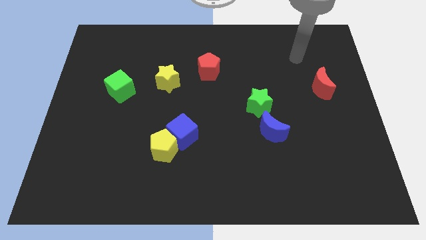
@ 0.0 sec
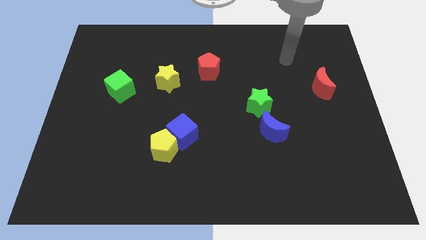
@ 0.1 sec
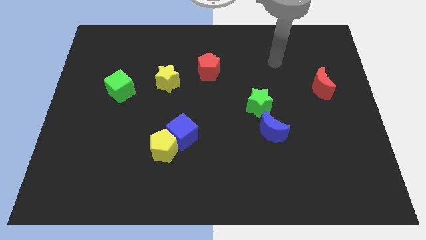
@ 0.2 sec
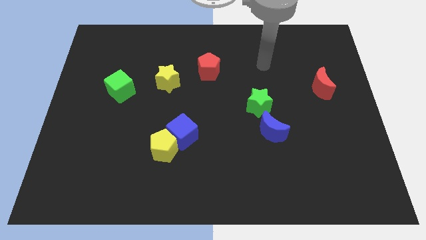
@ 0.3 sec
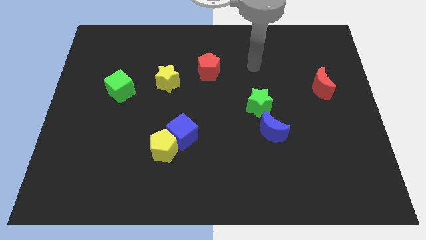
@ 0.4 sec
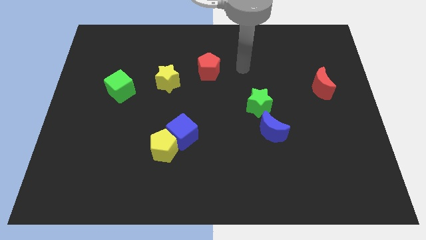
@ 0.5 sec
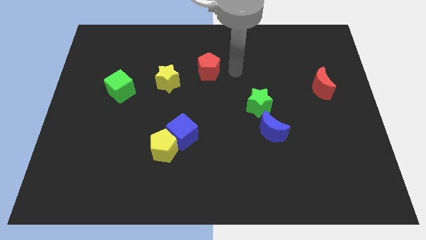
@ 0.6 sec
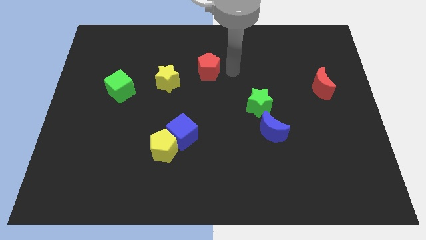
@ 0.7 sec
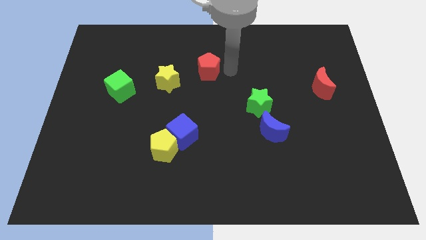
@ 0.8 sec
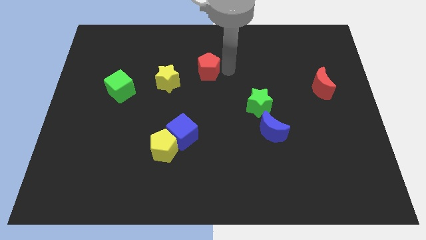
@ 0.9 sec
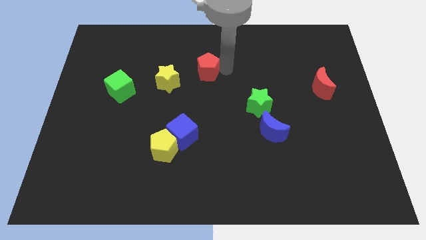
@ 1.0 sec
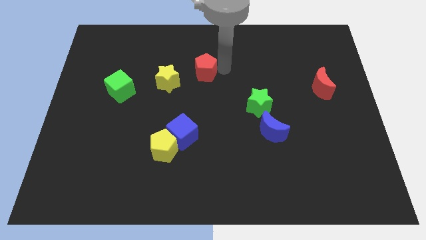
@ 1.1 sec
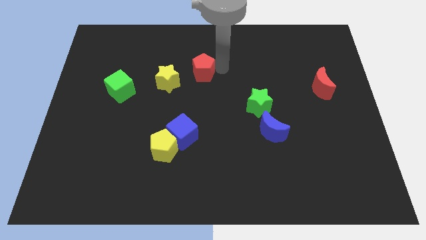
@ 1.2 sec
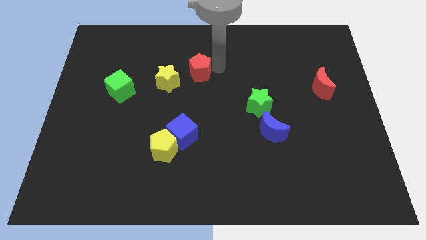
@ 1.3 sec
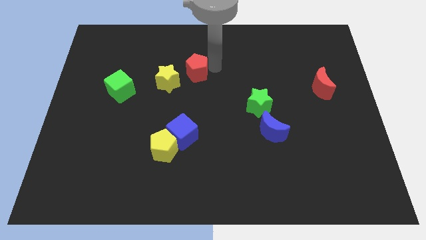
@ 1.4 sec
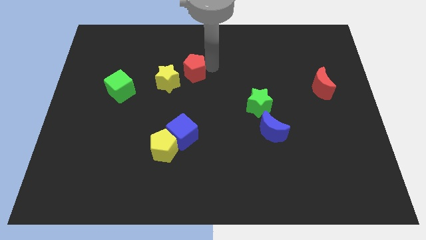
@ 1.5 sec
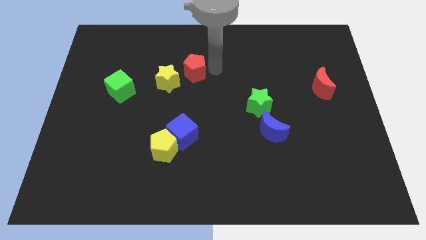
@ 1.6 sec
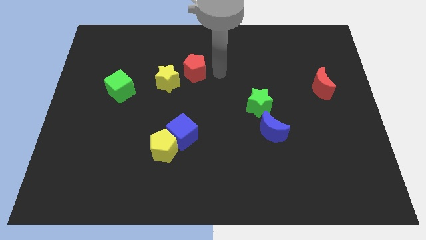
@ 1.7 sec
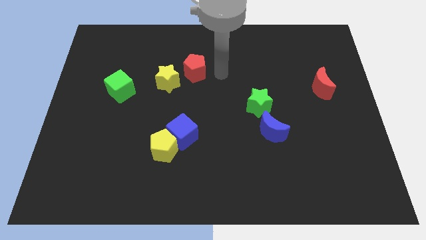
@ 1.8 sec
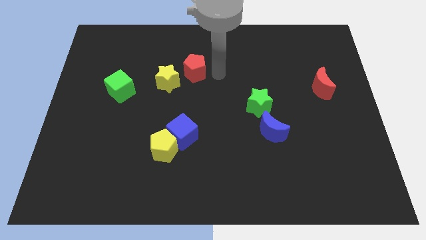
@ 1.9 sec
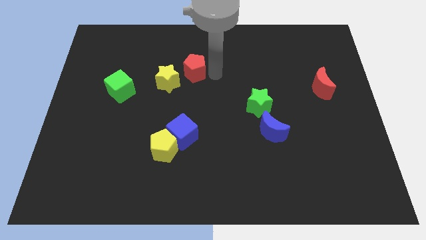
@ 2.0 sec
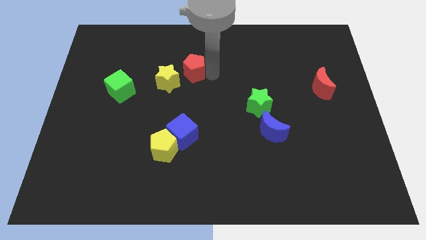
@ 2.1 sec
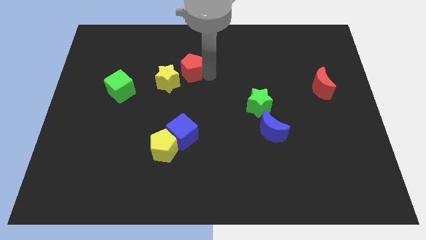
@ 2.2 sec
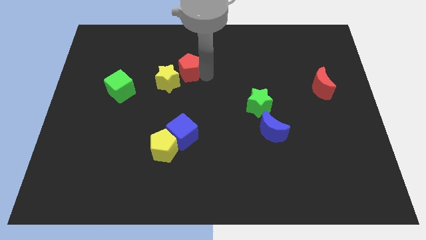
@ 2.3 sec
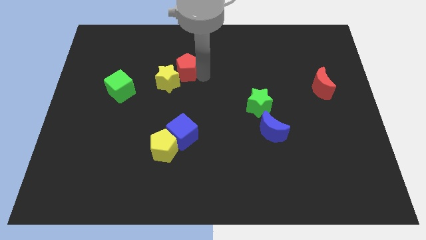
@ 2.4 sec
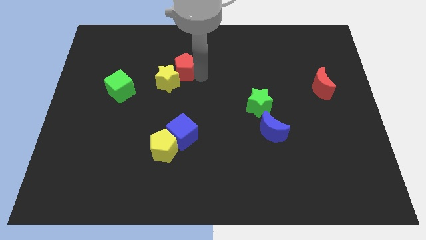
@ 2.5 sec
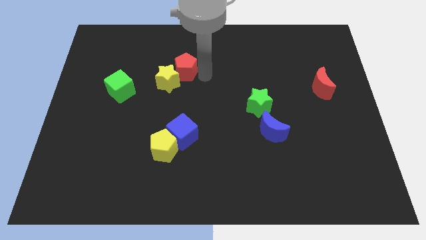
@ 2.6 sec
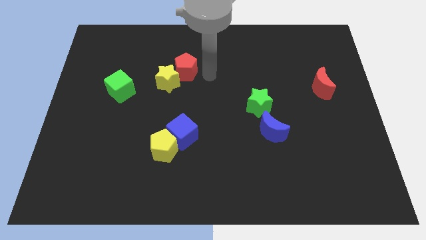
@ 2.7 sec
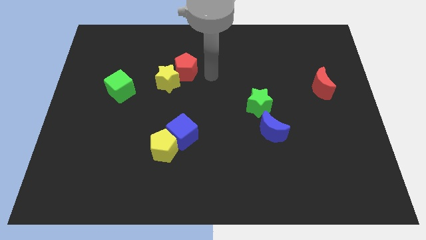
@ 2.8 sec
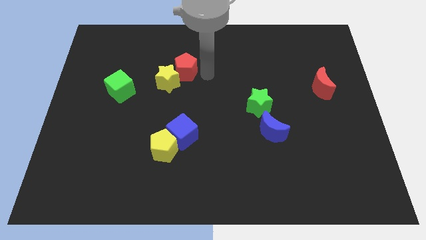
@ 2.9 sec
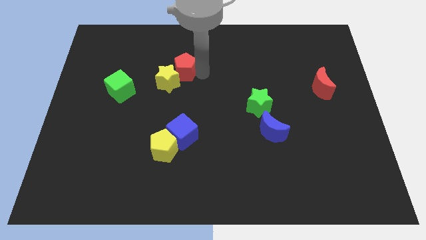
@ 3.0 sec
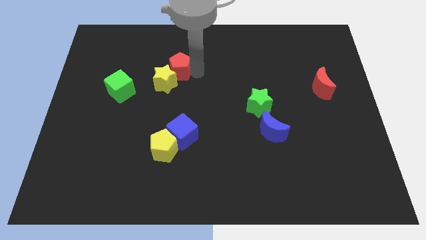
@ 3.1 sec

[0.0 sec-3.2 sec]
slightly move the red pentagon to the left

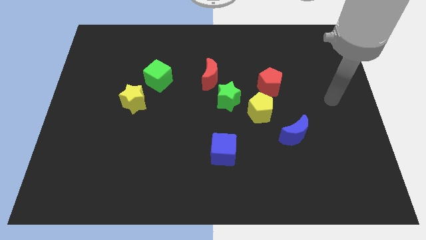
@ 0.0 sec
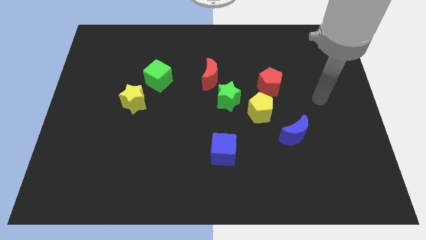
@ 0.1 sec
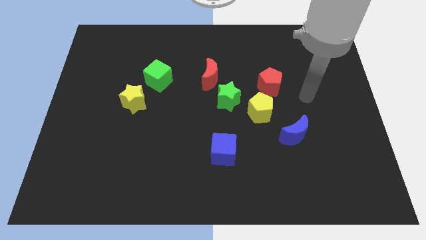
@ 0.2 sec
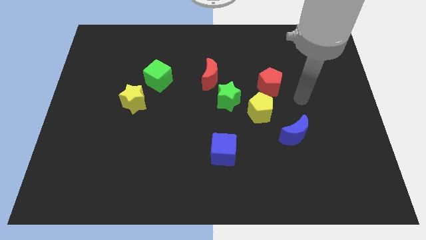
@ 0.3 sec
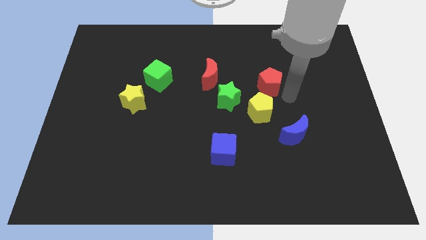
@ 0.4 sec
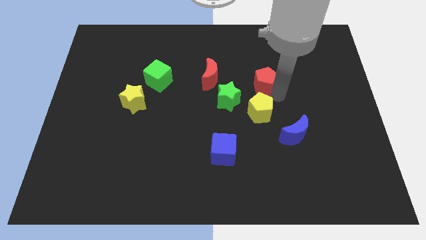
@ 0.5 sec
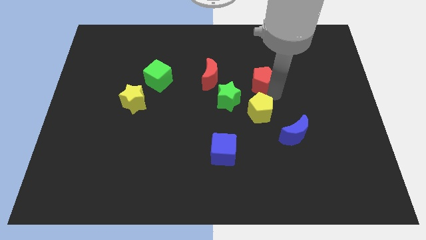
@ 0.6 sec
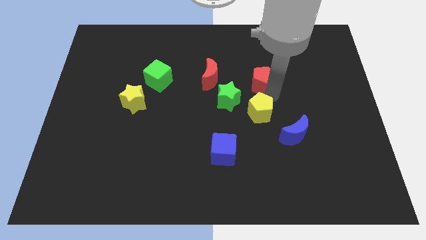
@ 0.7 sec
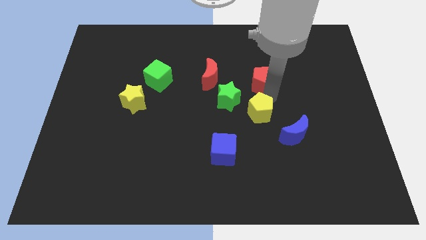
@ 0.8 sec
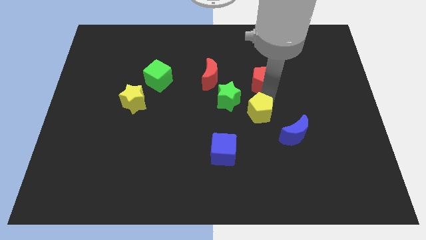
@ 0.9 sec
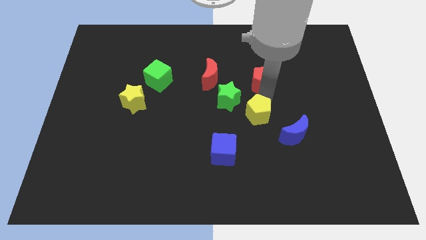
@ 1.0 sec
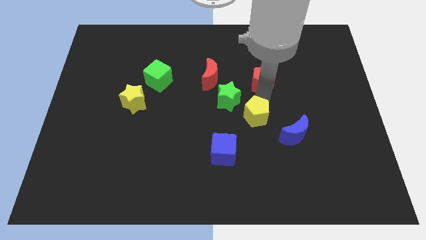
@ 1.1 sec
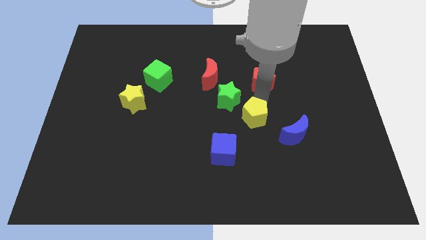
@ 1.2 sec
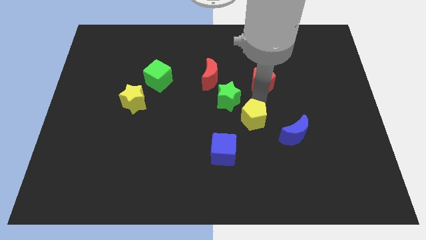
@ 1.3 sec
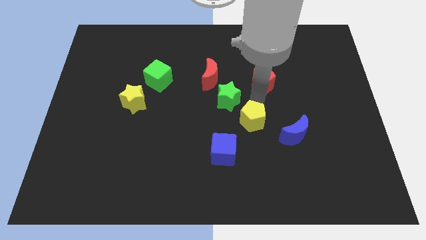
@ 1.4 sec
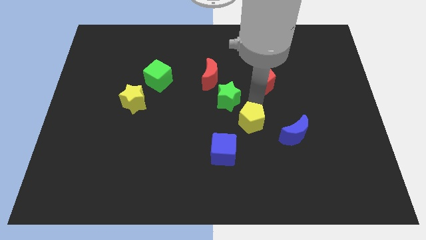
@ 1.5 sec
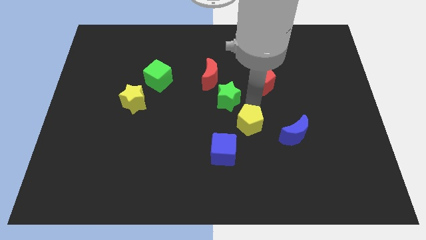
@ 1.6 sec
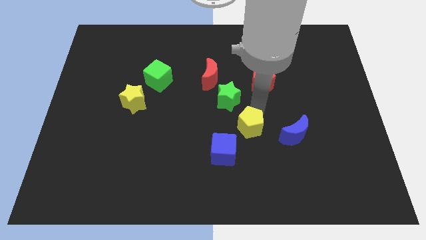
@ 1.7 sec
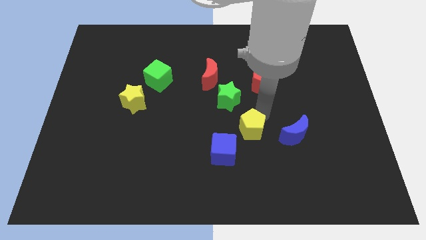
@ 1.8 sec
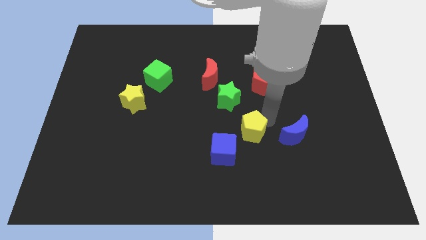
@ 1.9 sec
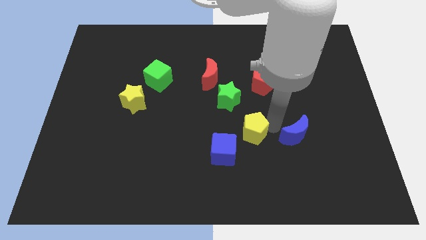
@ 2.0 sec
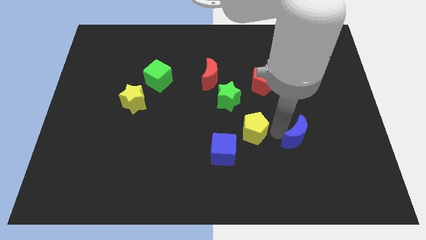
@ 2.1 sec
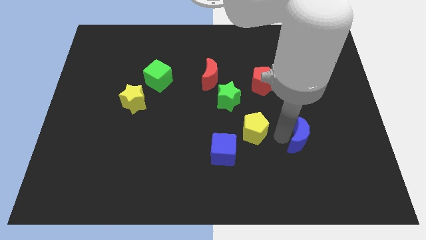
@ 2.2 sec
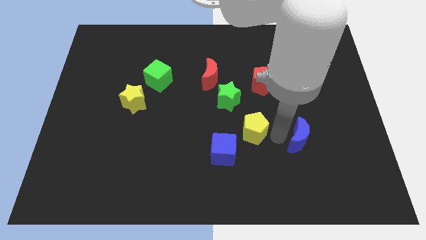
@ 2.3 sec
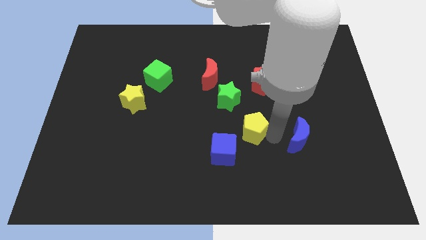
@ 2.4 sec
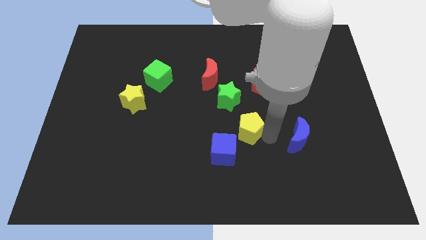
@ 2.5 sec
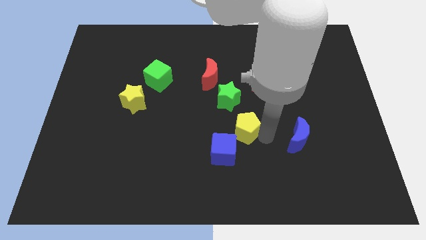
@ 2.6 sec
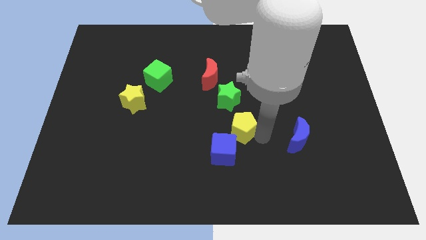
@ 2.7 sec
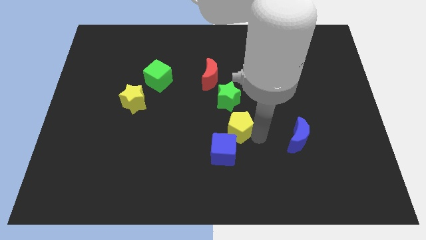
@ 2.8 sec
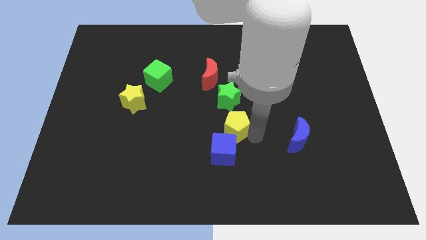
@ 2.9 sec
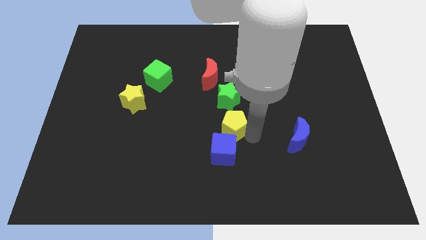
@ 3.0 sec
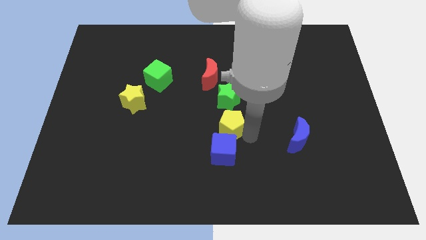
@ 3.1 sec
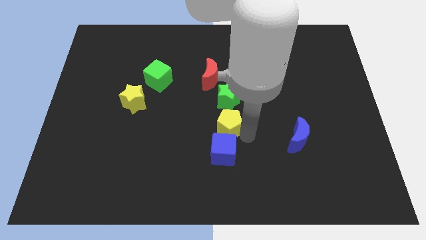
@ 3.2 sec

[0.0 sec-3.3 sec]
push the yellow pentagon slightly left

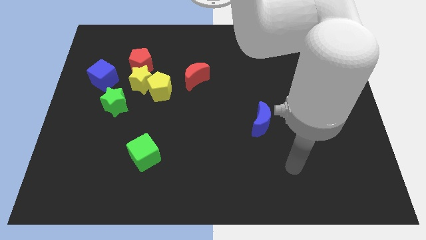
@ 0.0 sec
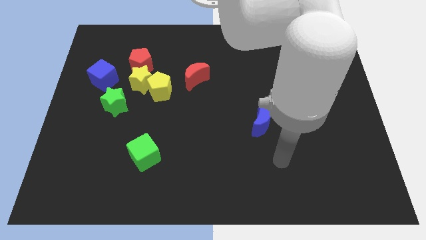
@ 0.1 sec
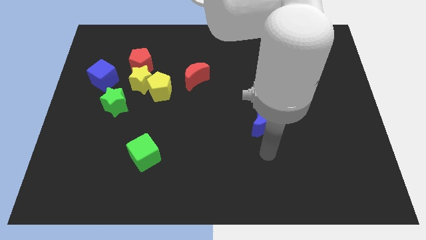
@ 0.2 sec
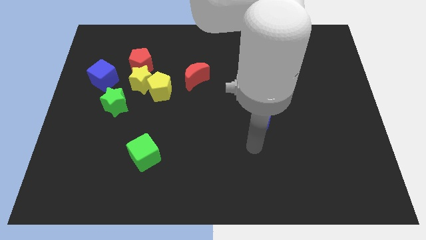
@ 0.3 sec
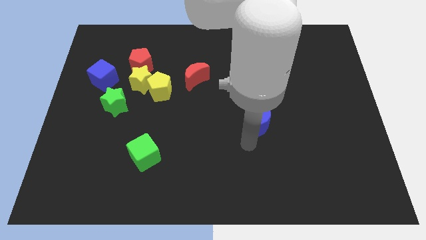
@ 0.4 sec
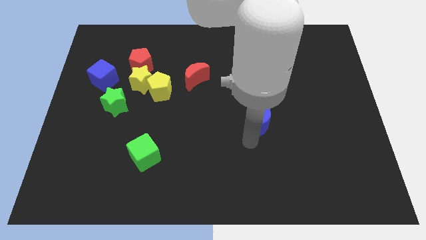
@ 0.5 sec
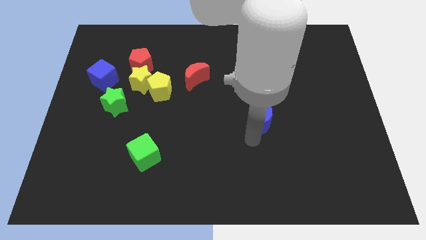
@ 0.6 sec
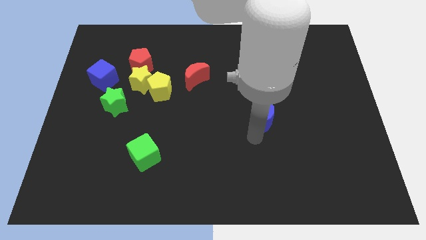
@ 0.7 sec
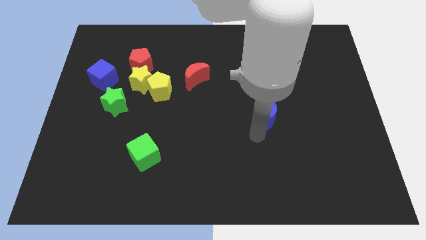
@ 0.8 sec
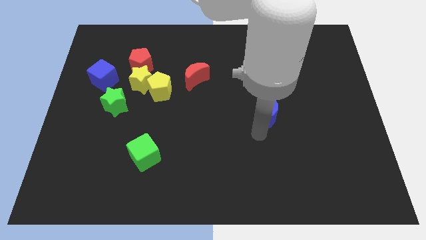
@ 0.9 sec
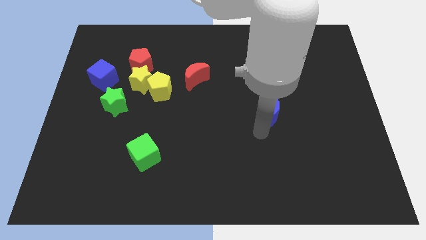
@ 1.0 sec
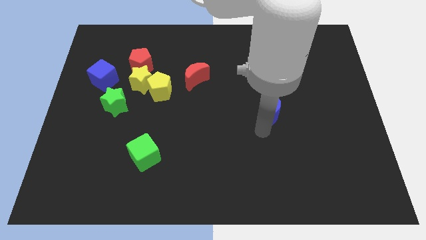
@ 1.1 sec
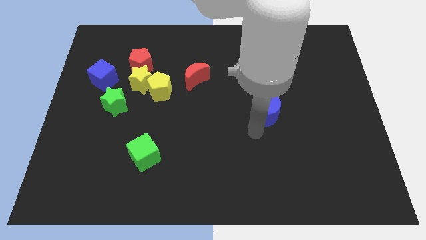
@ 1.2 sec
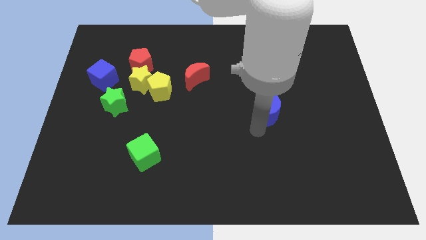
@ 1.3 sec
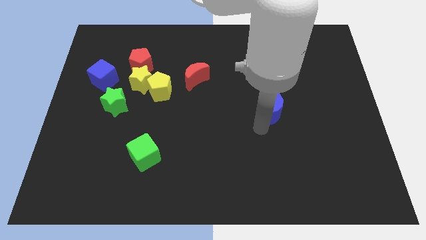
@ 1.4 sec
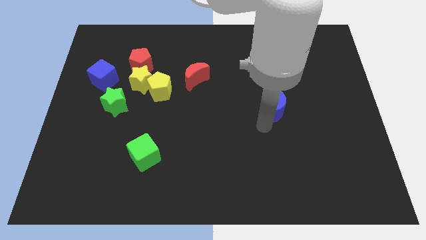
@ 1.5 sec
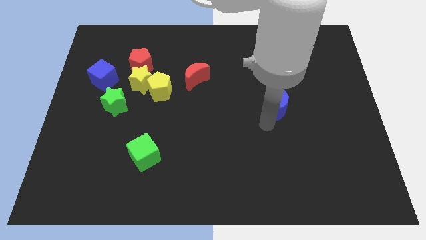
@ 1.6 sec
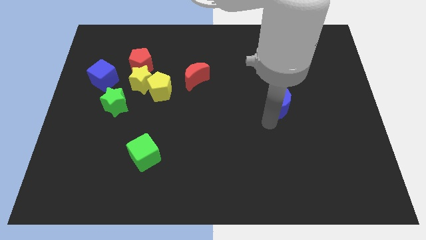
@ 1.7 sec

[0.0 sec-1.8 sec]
push the blue moon diagonally up and to the right a little bit

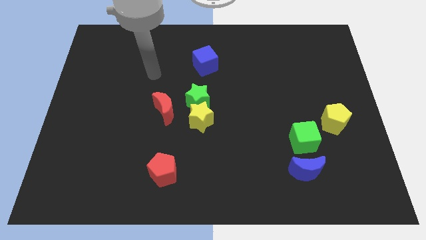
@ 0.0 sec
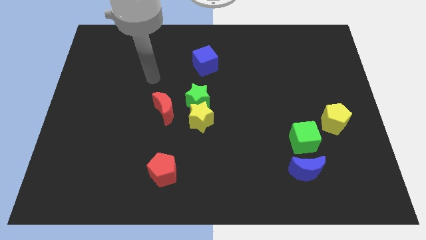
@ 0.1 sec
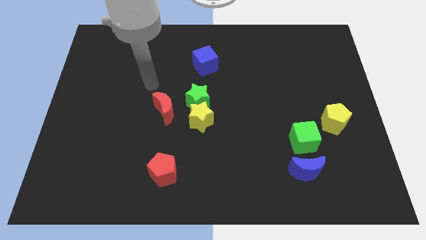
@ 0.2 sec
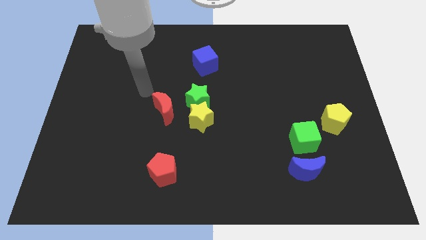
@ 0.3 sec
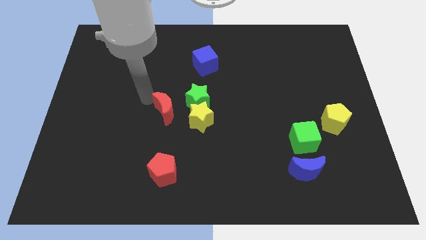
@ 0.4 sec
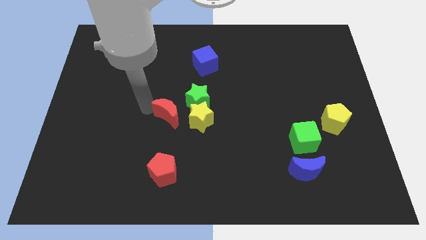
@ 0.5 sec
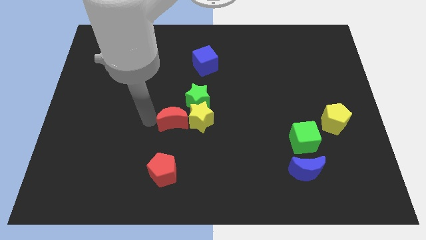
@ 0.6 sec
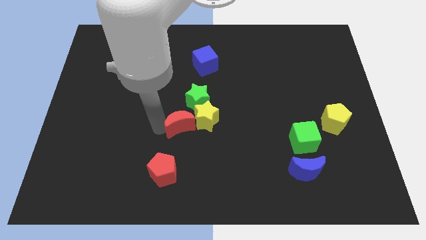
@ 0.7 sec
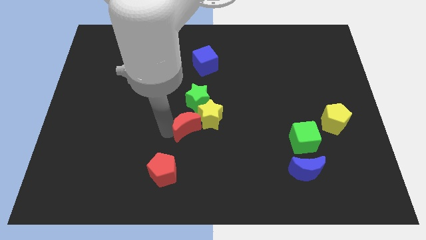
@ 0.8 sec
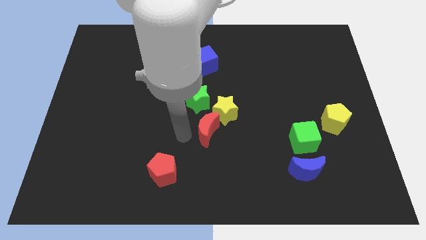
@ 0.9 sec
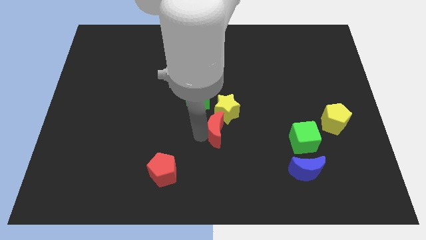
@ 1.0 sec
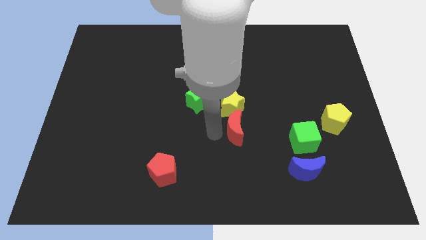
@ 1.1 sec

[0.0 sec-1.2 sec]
slightly push the yellow star upwards and to the right diagonally
